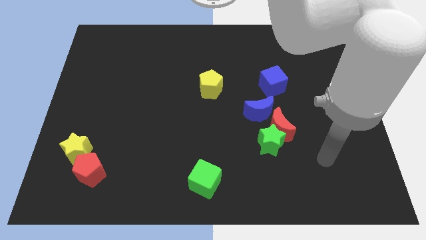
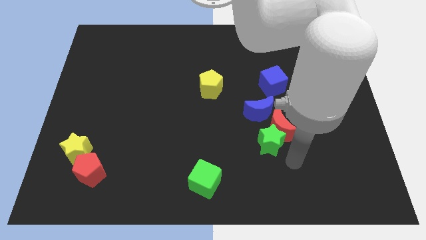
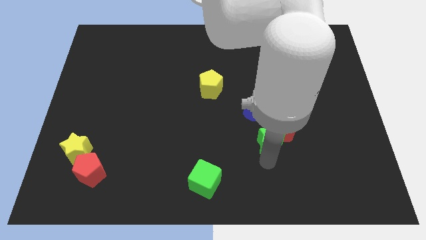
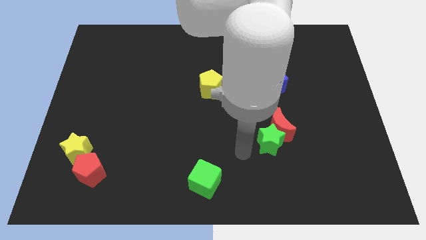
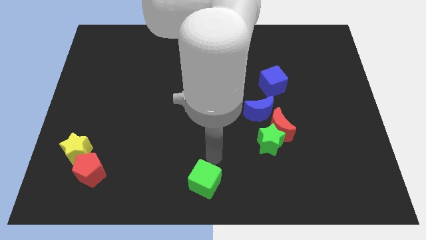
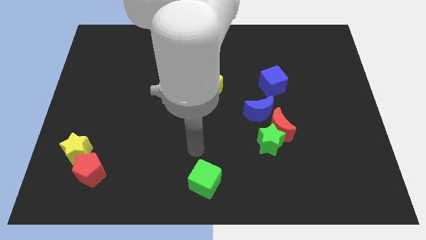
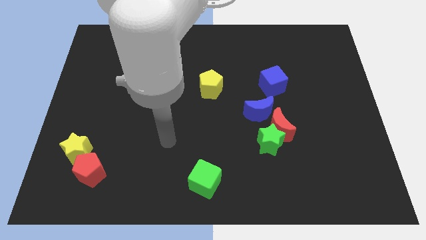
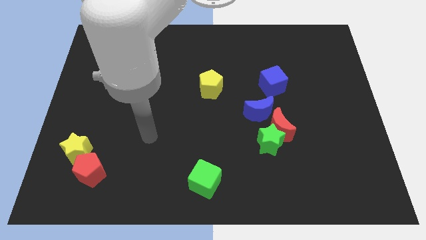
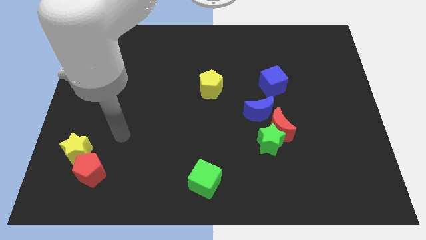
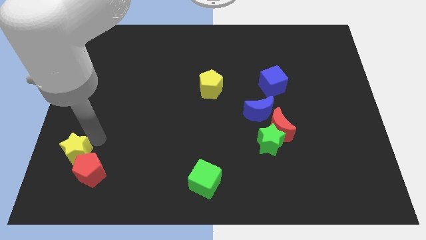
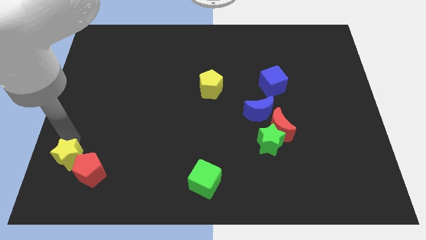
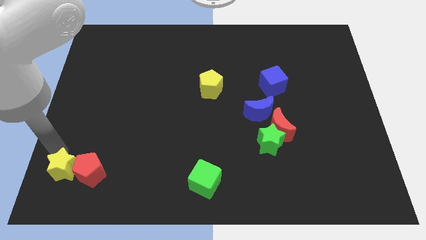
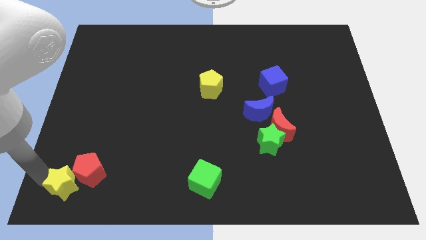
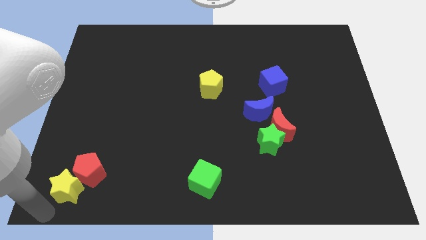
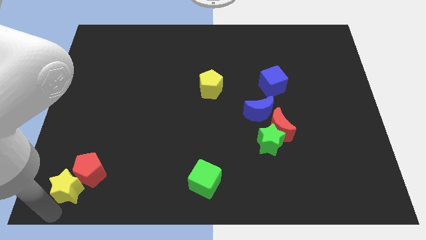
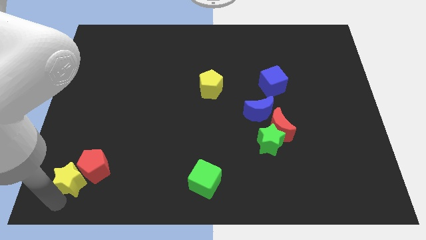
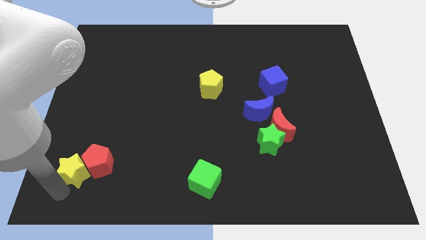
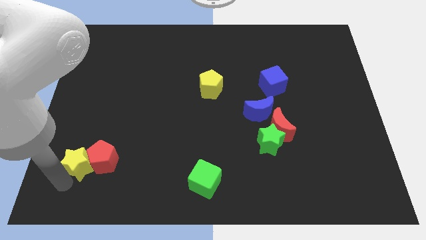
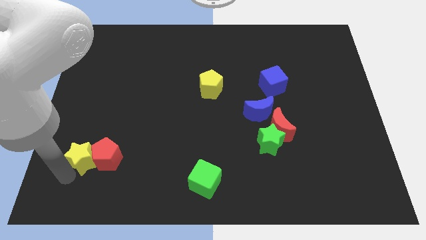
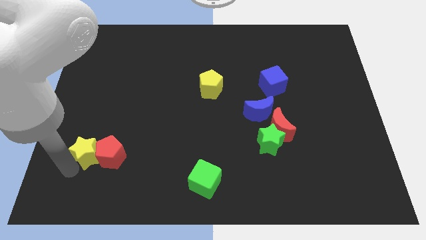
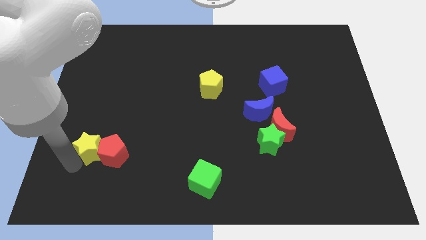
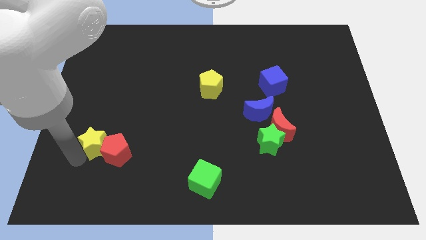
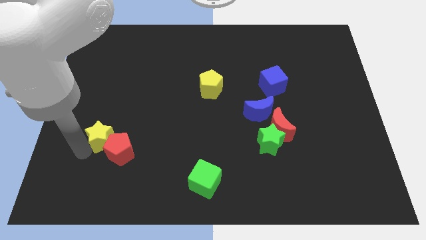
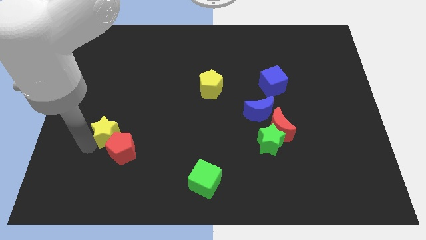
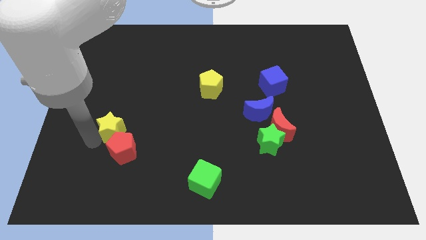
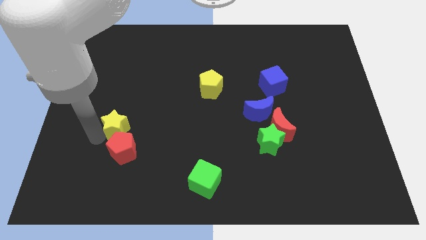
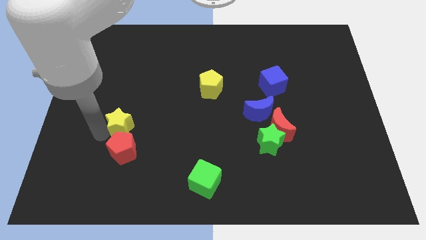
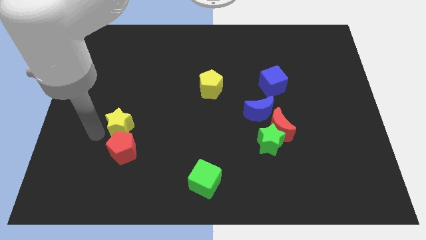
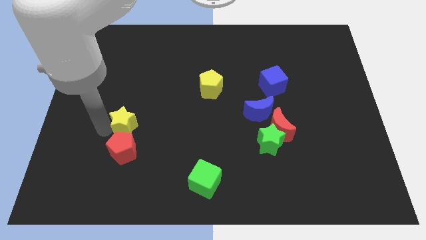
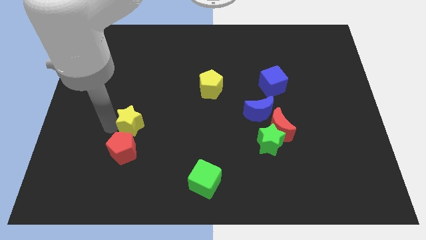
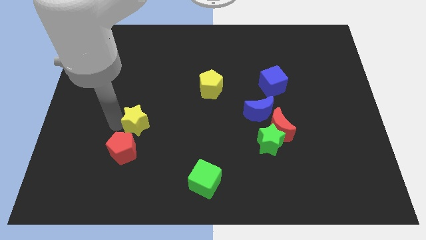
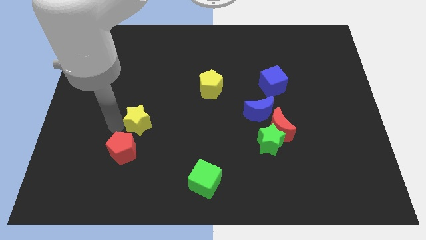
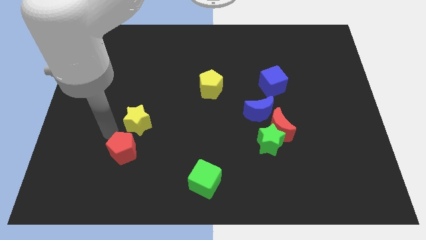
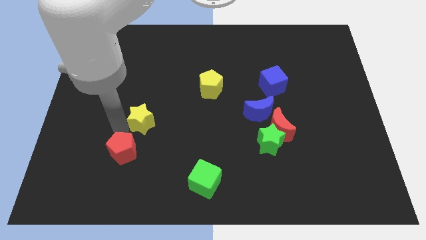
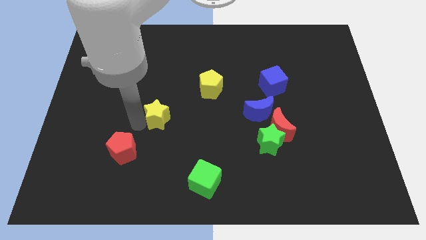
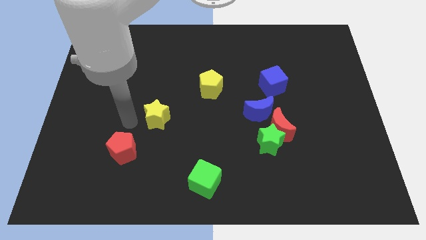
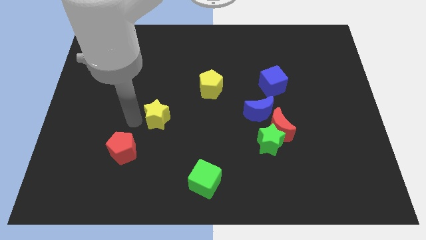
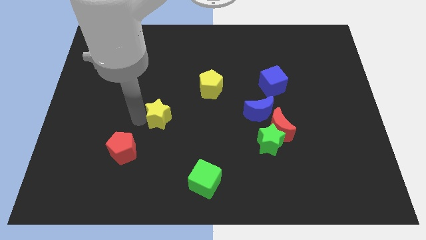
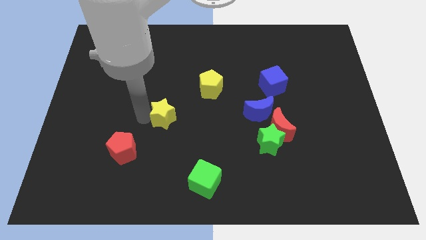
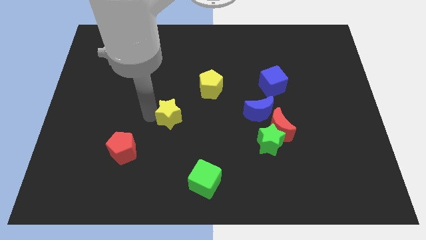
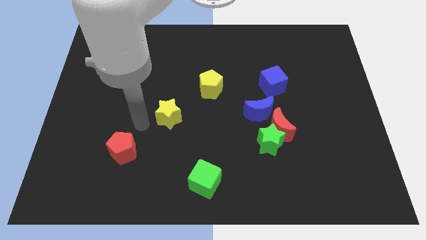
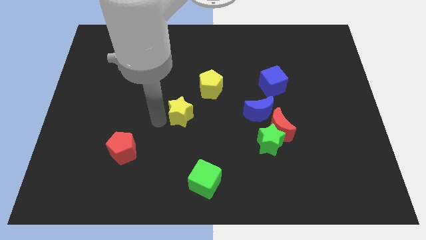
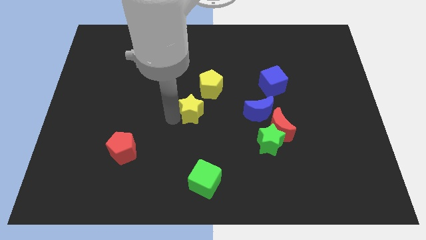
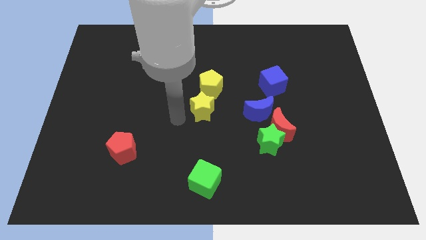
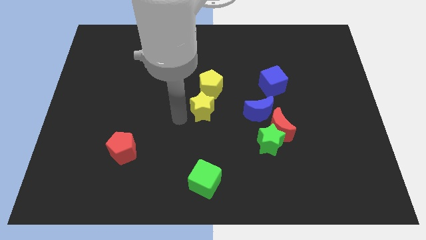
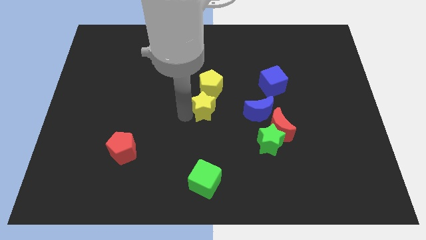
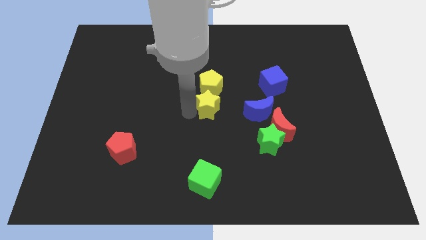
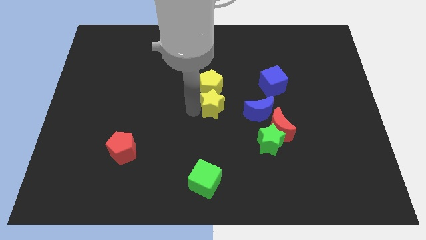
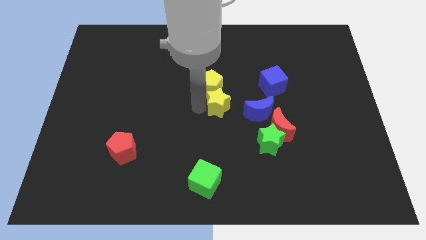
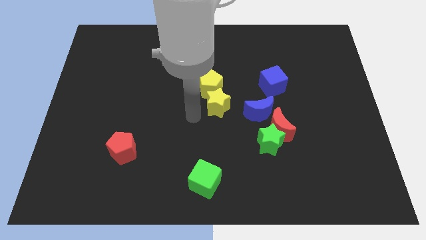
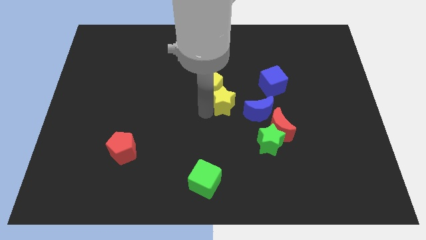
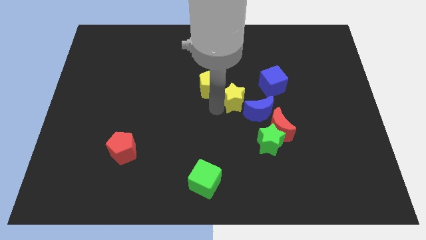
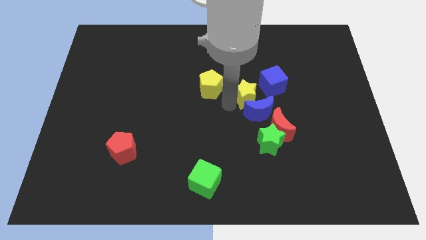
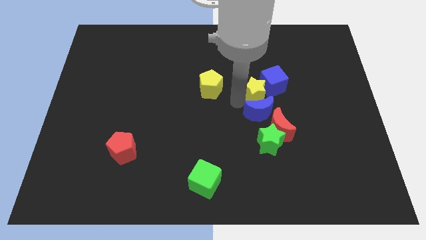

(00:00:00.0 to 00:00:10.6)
push the yellow star to the blue cube

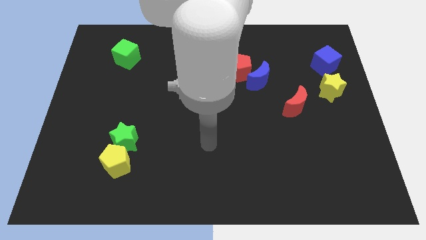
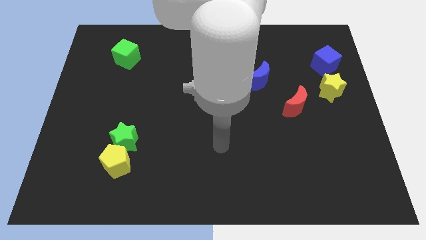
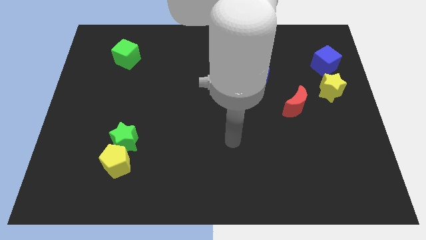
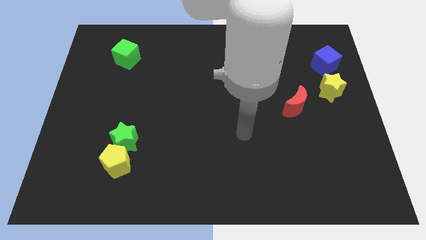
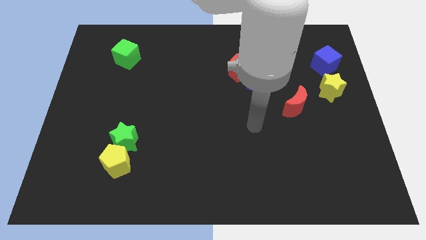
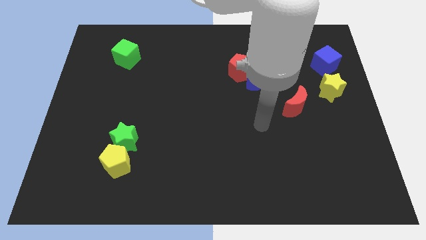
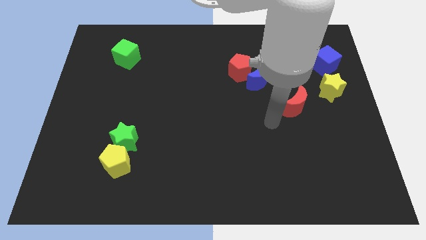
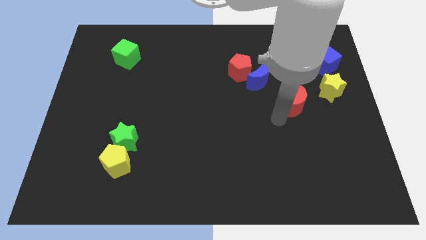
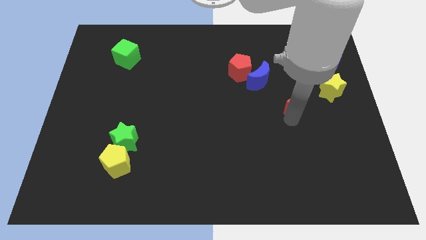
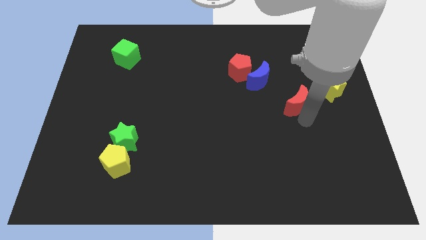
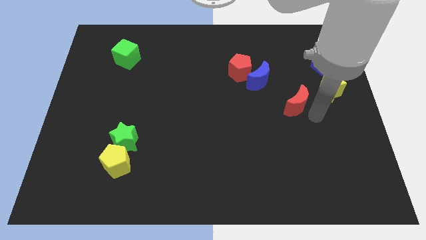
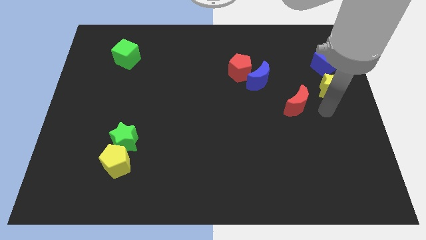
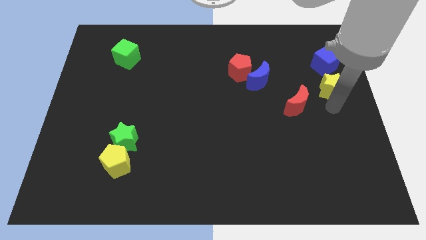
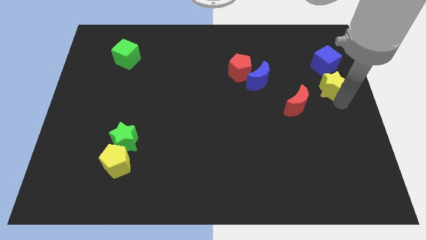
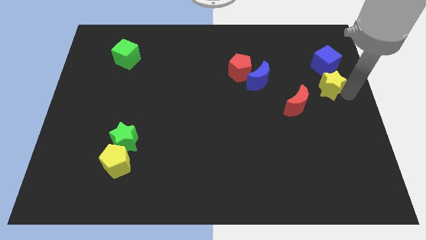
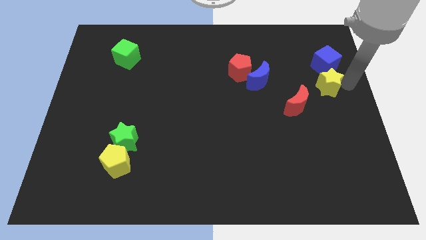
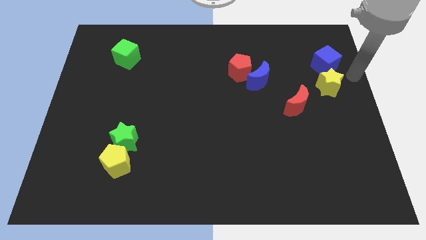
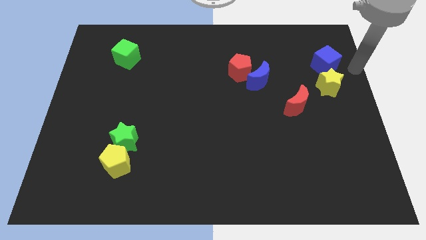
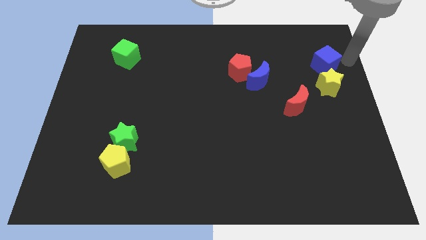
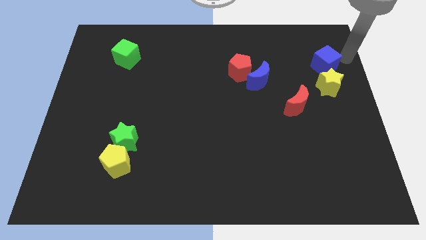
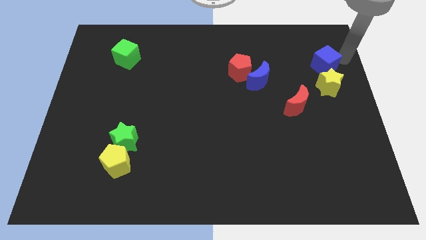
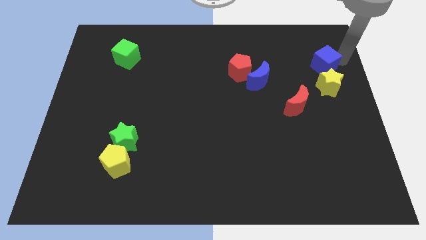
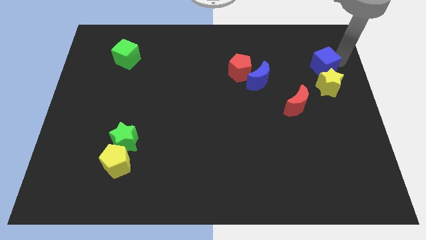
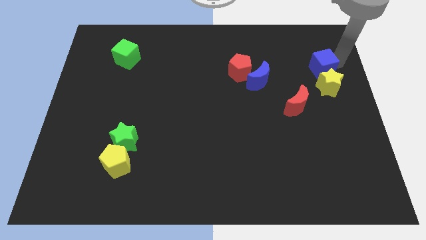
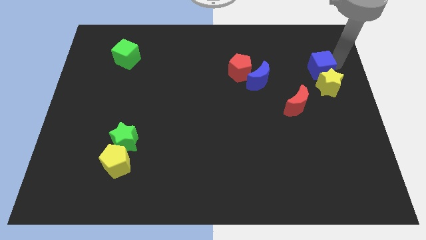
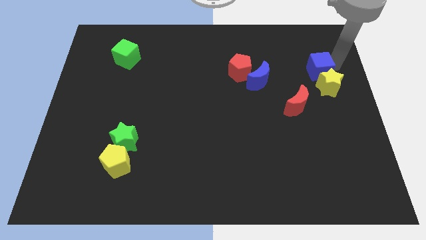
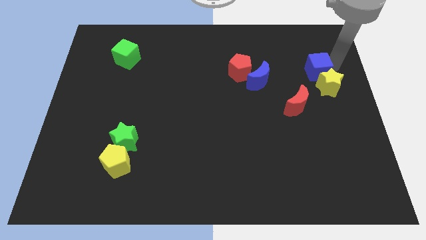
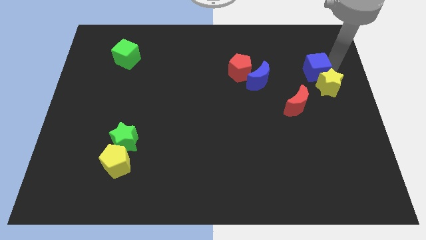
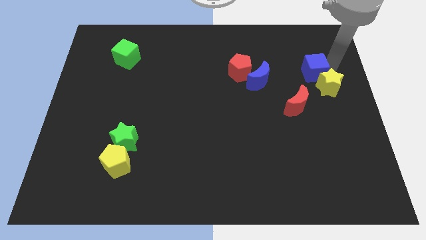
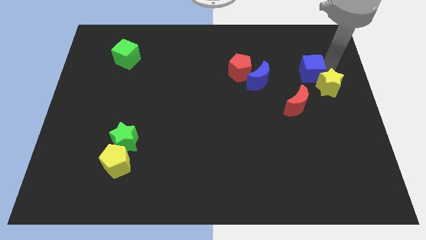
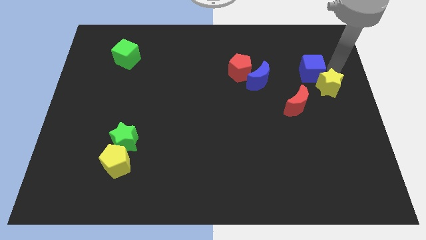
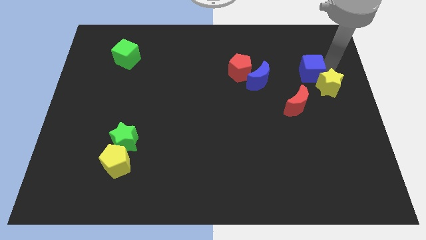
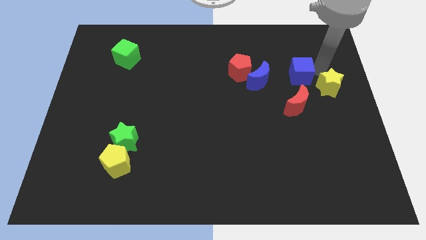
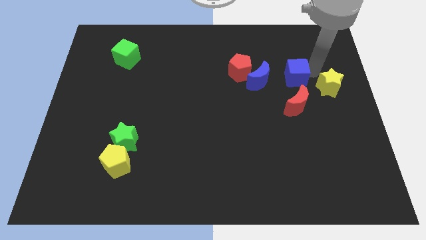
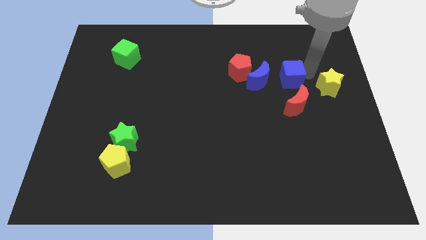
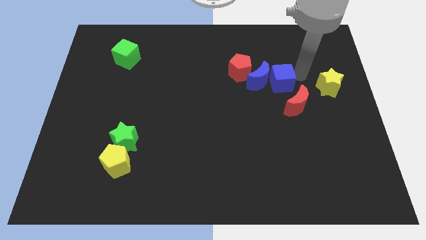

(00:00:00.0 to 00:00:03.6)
put the blue cube close to the blue moon
